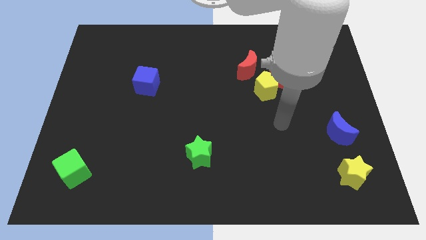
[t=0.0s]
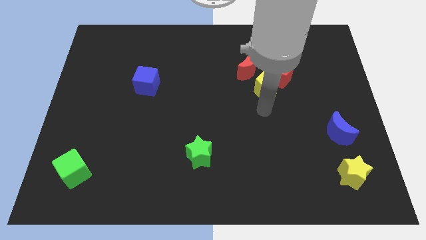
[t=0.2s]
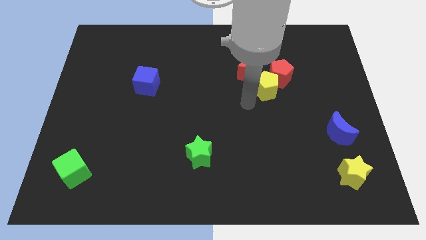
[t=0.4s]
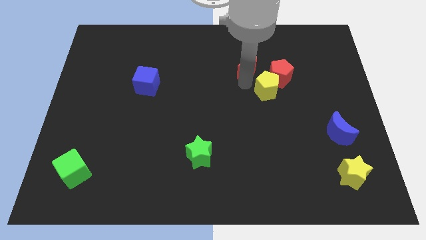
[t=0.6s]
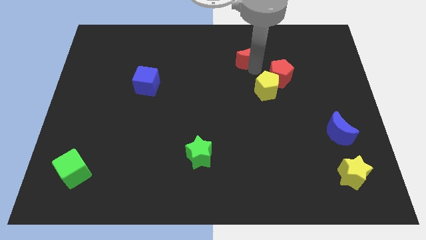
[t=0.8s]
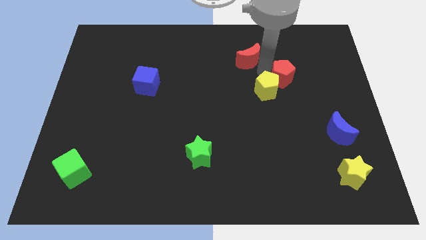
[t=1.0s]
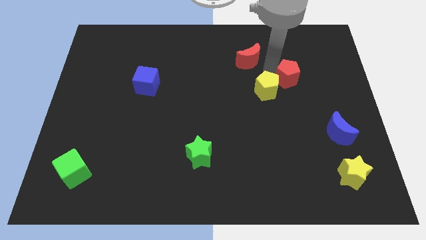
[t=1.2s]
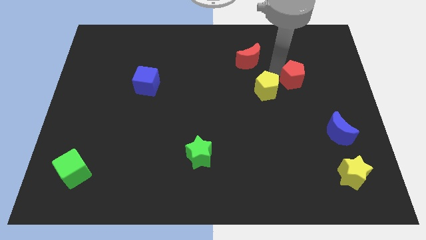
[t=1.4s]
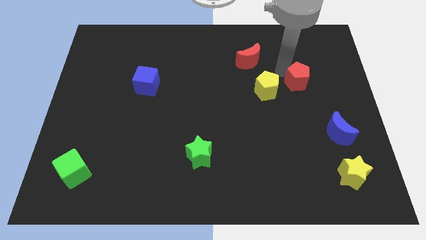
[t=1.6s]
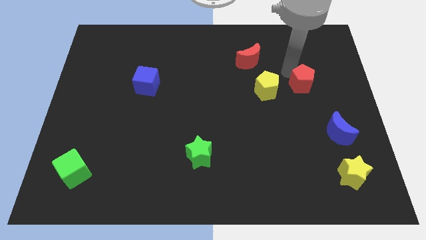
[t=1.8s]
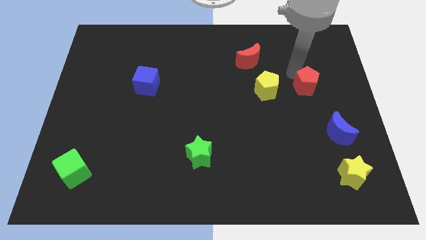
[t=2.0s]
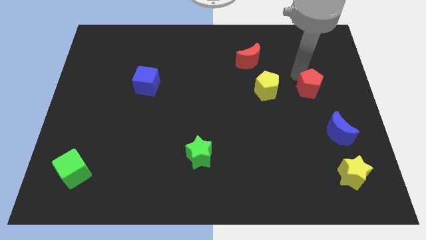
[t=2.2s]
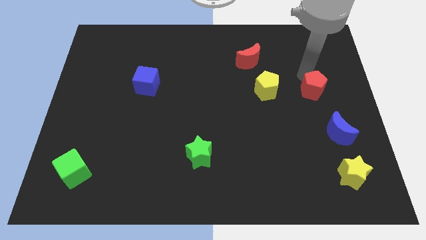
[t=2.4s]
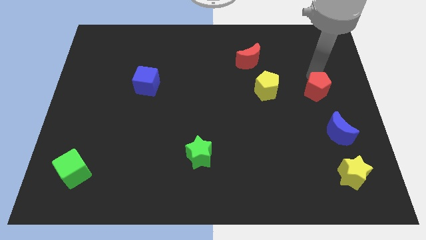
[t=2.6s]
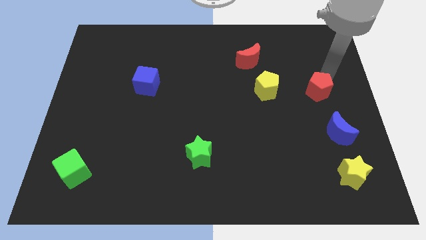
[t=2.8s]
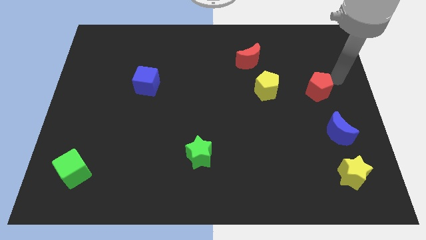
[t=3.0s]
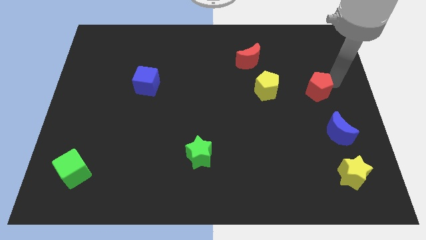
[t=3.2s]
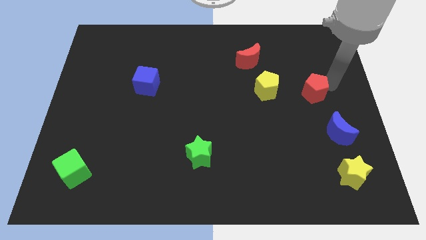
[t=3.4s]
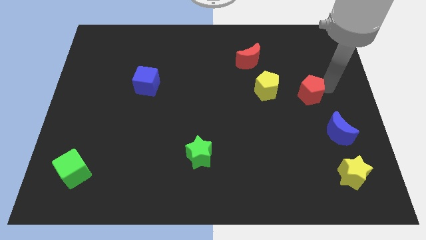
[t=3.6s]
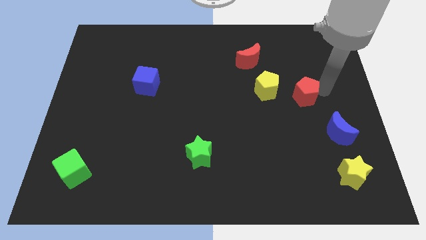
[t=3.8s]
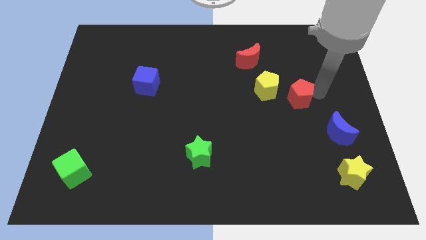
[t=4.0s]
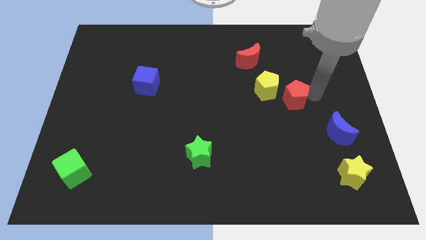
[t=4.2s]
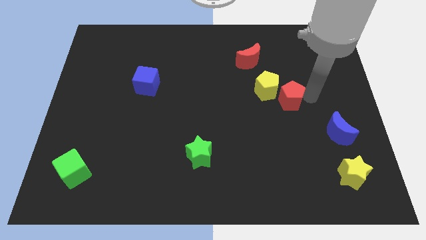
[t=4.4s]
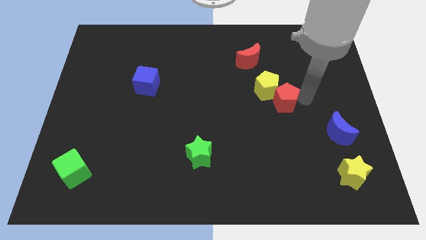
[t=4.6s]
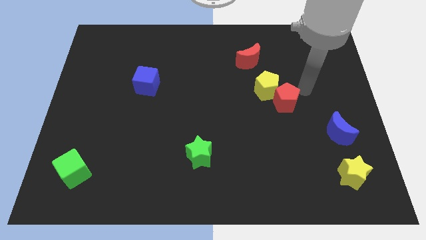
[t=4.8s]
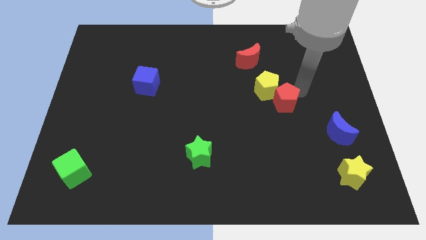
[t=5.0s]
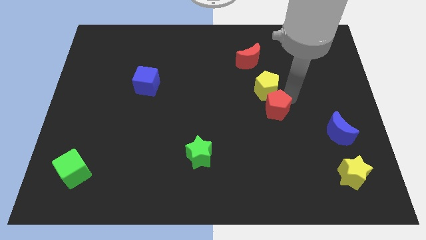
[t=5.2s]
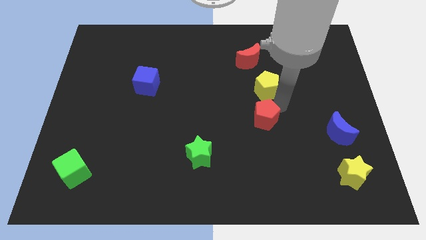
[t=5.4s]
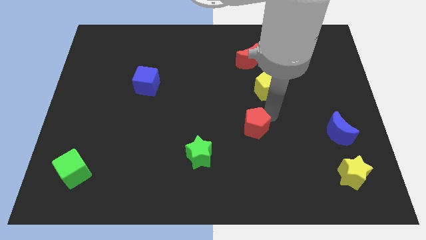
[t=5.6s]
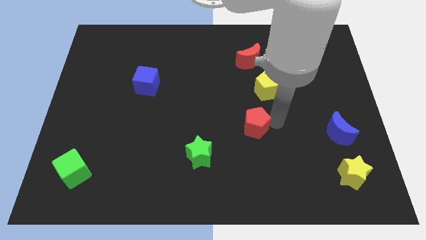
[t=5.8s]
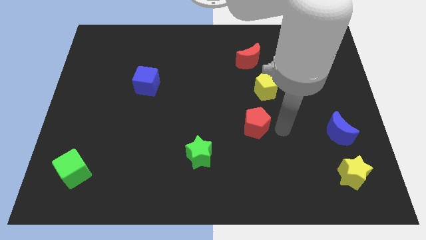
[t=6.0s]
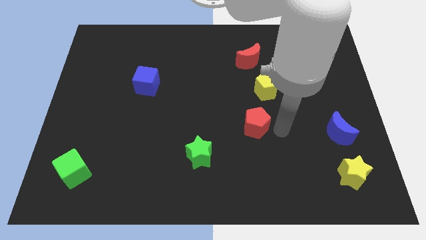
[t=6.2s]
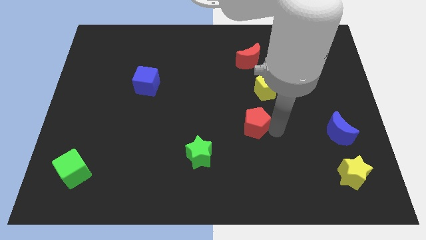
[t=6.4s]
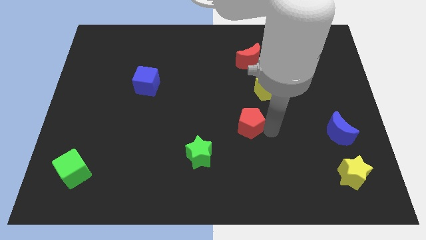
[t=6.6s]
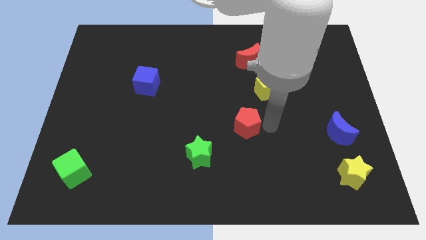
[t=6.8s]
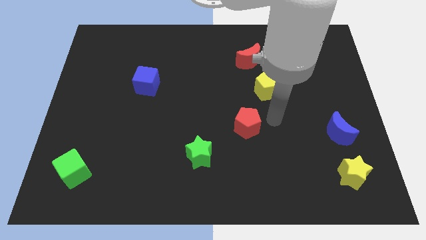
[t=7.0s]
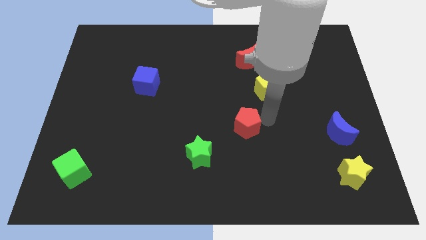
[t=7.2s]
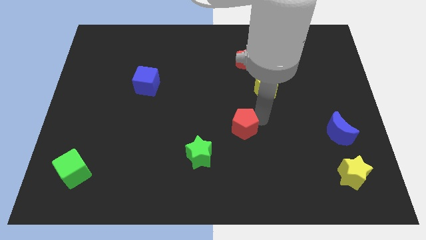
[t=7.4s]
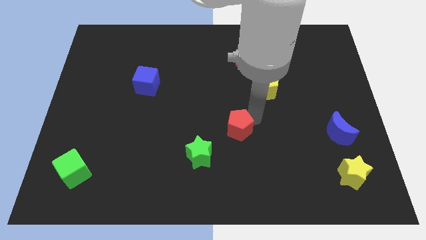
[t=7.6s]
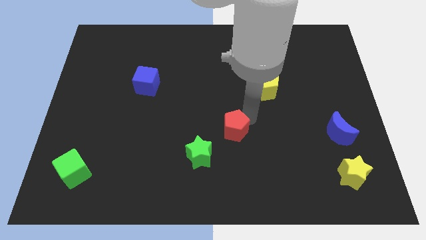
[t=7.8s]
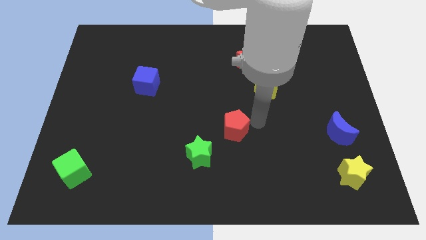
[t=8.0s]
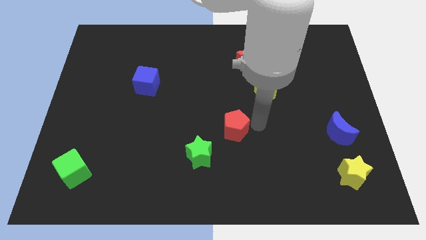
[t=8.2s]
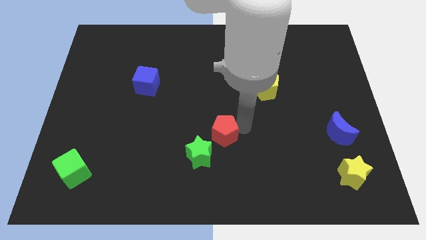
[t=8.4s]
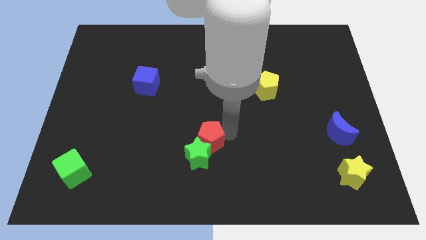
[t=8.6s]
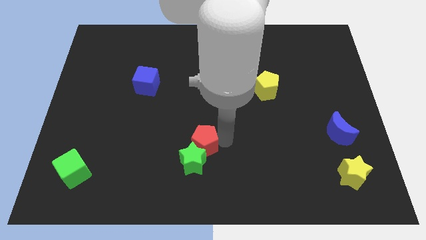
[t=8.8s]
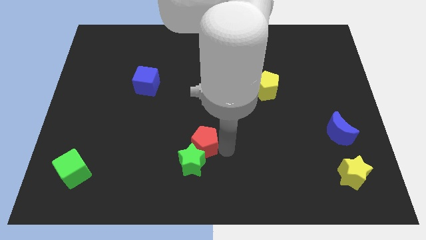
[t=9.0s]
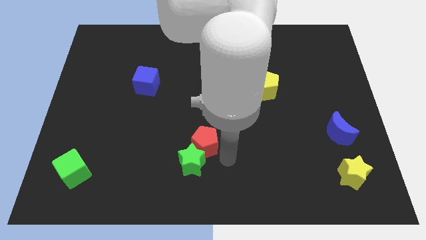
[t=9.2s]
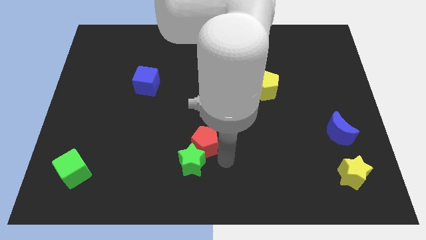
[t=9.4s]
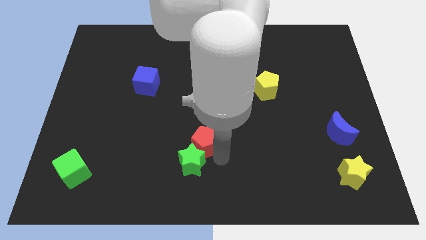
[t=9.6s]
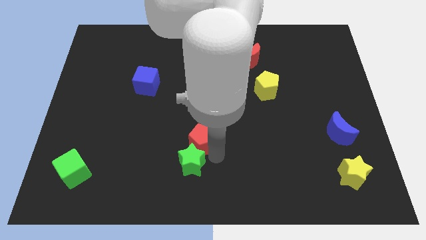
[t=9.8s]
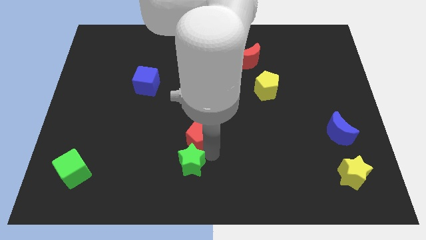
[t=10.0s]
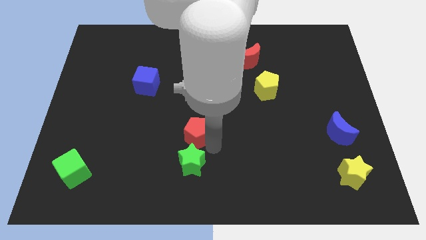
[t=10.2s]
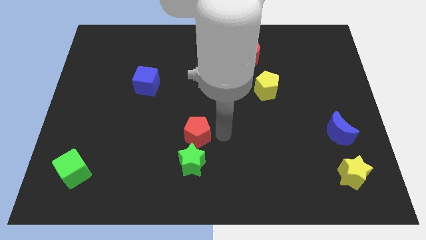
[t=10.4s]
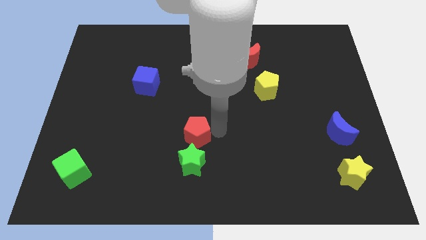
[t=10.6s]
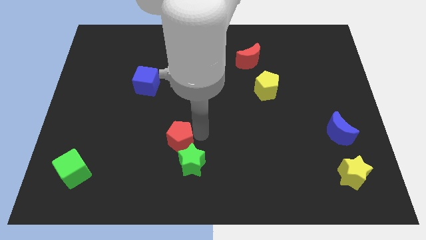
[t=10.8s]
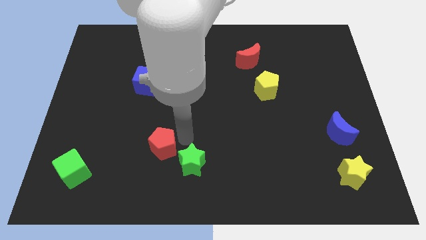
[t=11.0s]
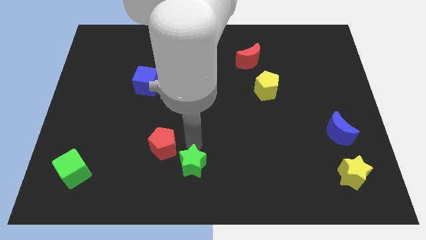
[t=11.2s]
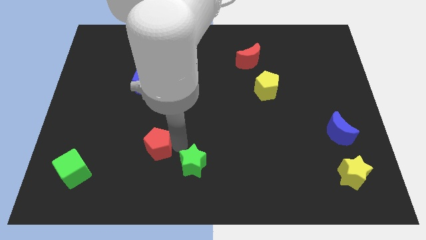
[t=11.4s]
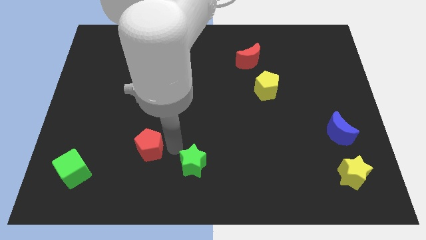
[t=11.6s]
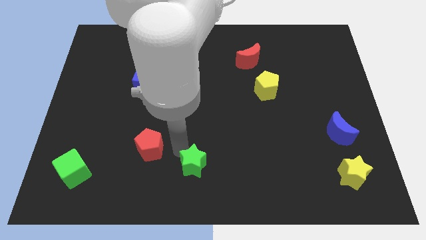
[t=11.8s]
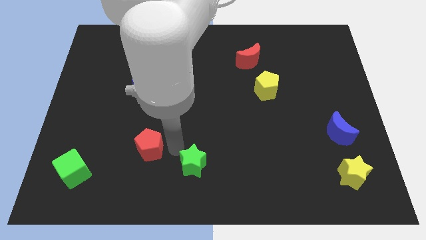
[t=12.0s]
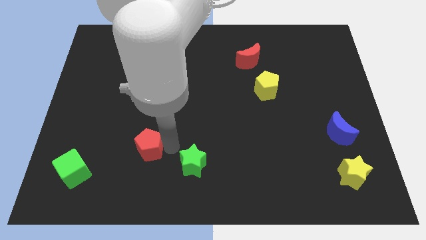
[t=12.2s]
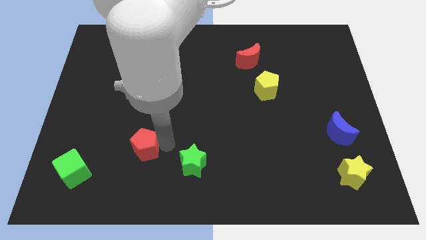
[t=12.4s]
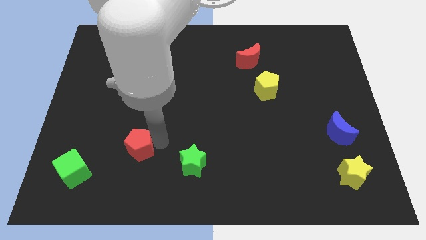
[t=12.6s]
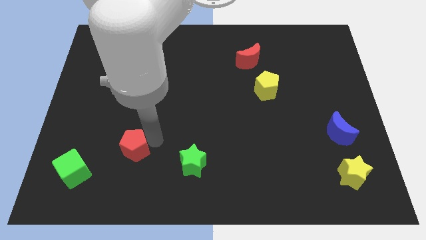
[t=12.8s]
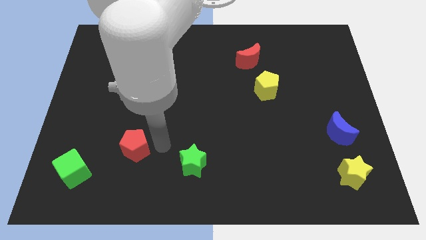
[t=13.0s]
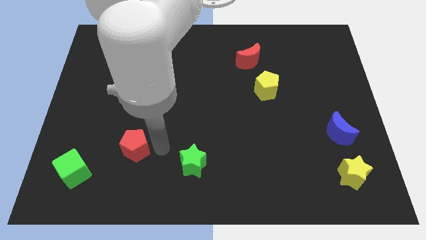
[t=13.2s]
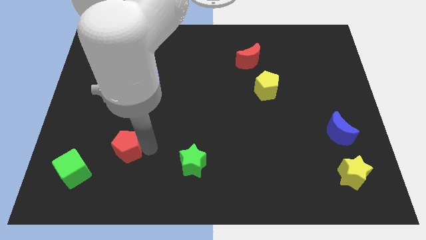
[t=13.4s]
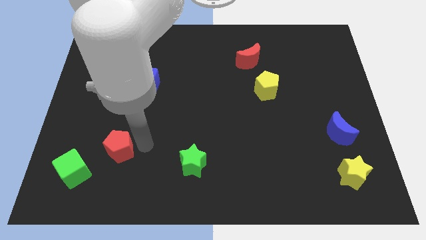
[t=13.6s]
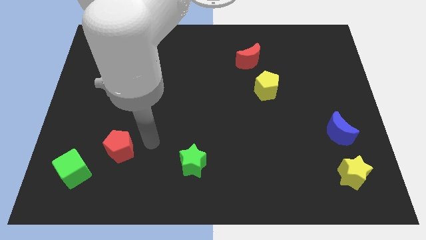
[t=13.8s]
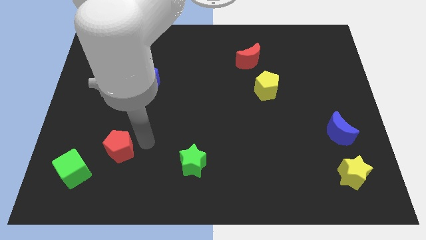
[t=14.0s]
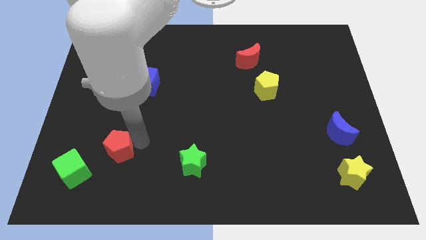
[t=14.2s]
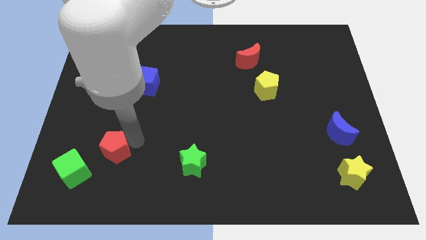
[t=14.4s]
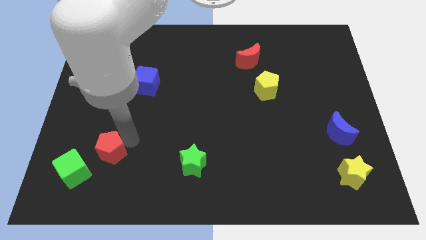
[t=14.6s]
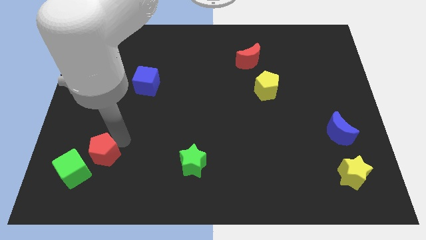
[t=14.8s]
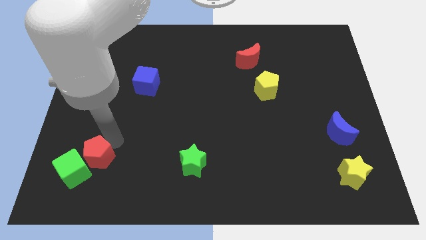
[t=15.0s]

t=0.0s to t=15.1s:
slide the red pentagon towards the green cube
